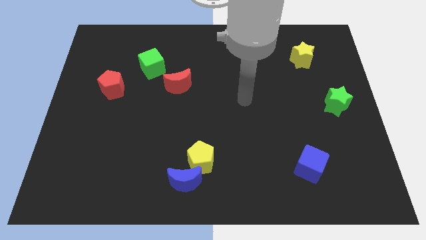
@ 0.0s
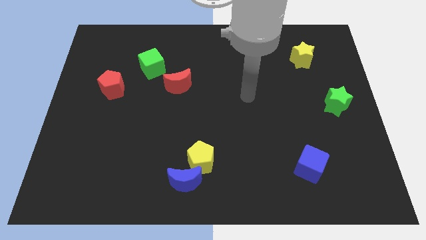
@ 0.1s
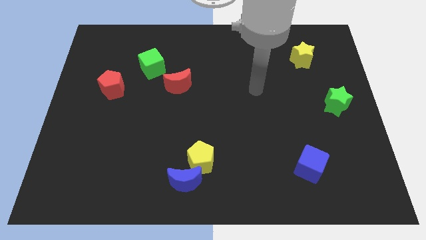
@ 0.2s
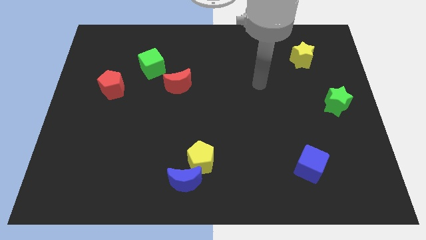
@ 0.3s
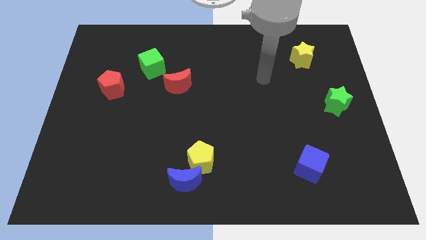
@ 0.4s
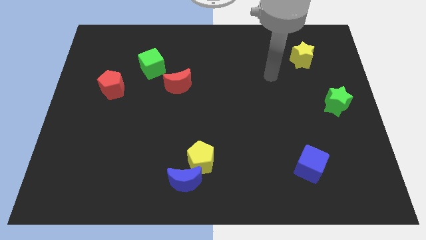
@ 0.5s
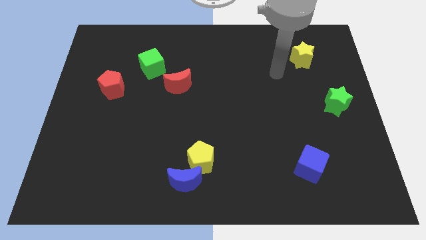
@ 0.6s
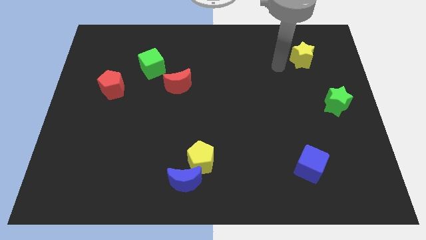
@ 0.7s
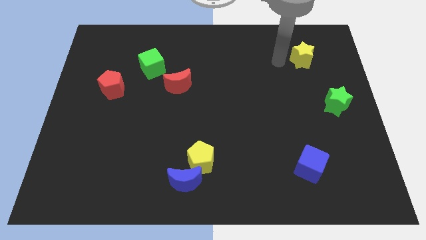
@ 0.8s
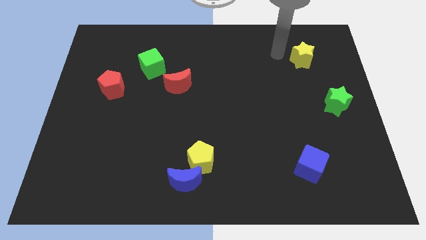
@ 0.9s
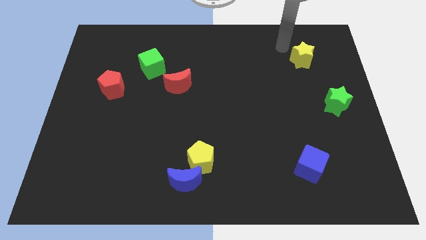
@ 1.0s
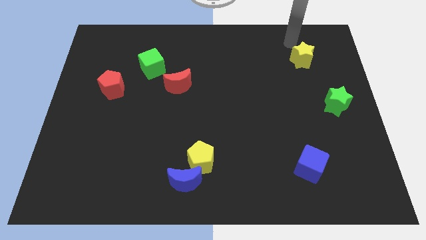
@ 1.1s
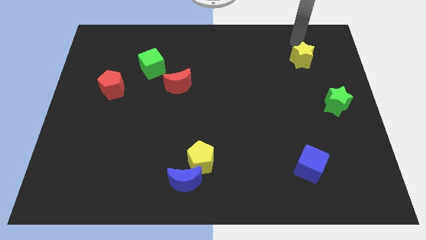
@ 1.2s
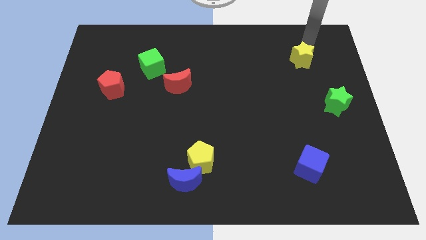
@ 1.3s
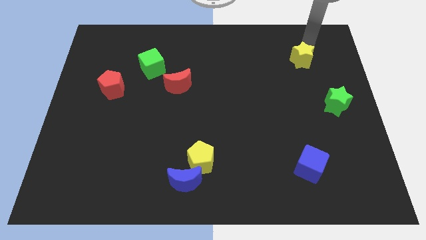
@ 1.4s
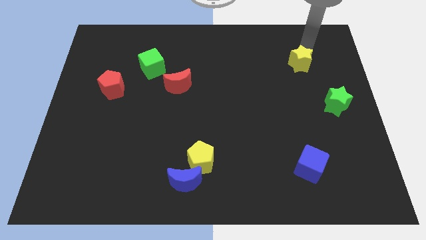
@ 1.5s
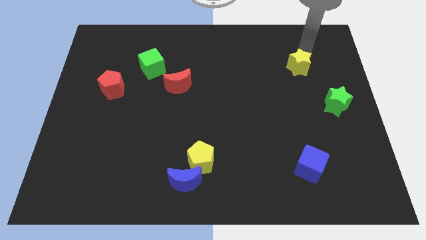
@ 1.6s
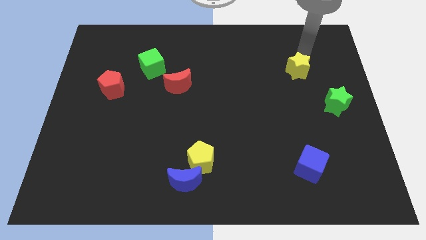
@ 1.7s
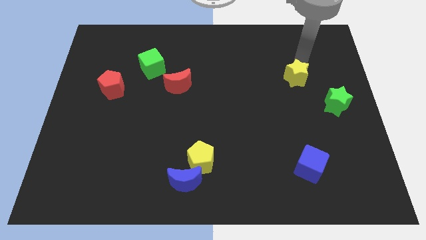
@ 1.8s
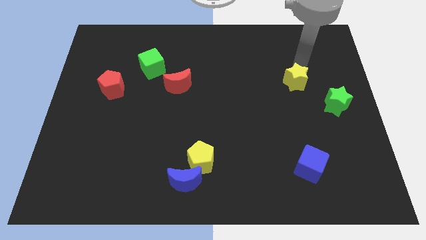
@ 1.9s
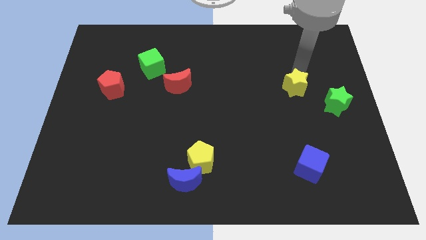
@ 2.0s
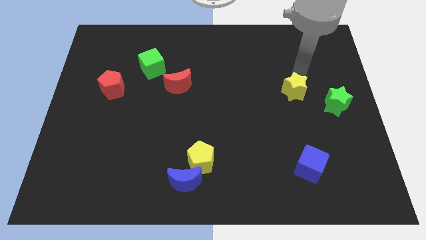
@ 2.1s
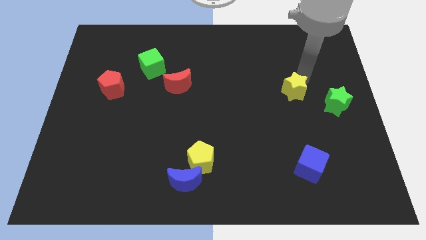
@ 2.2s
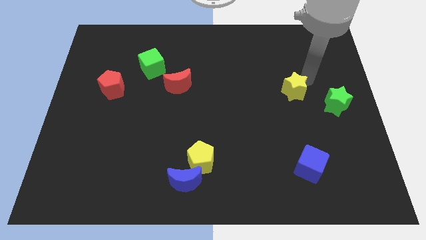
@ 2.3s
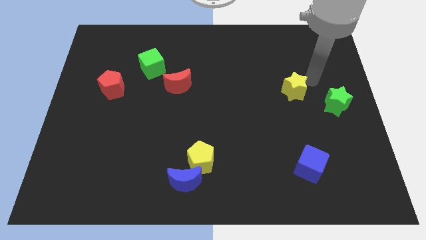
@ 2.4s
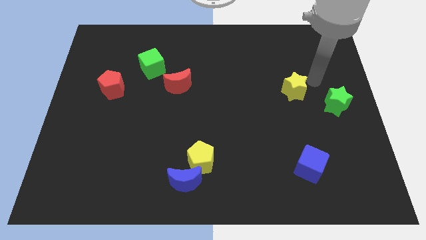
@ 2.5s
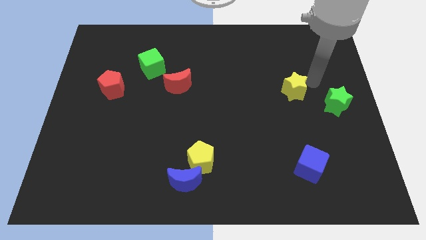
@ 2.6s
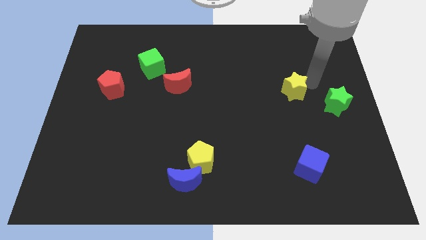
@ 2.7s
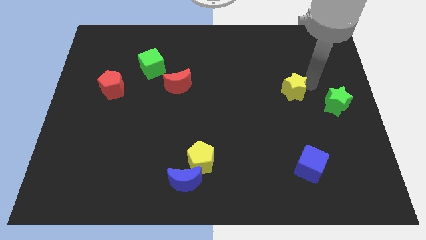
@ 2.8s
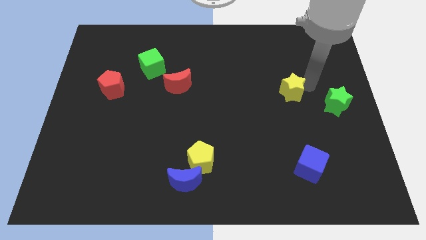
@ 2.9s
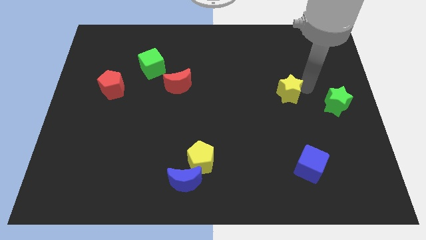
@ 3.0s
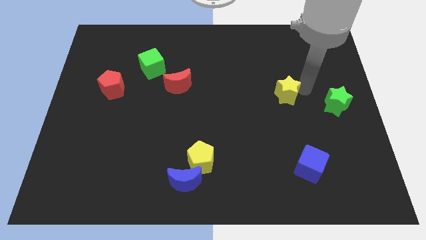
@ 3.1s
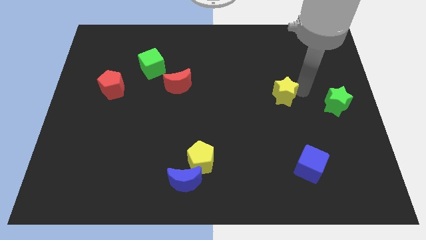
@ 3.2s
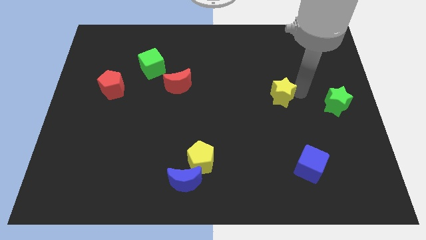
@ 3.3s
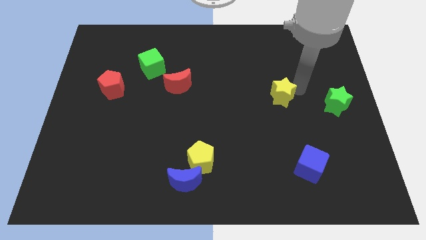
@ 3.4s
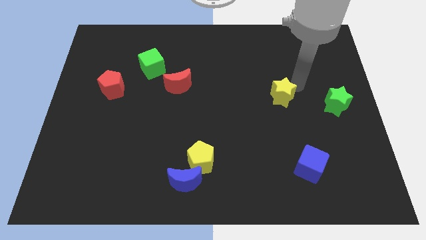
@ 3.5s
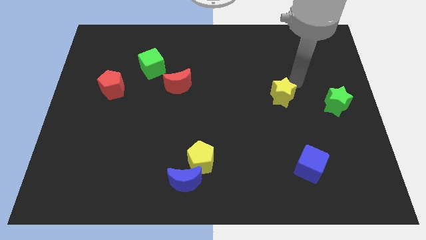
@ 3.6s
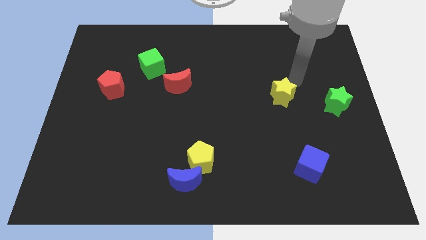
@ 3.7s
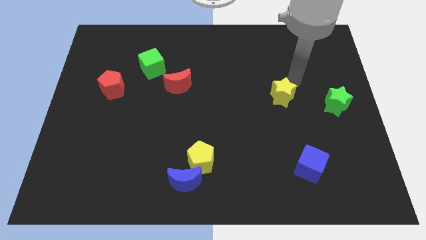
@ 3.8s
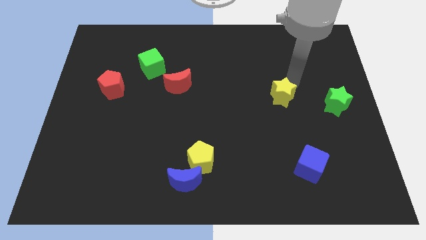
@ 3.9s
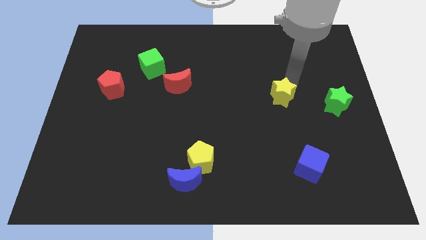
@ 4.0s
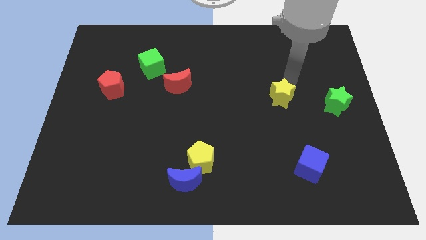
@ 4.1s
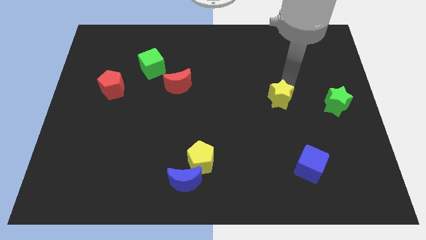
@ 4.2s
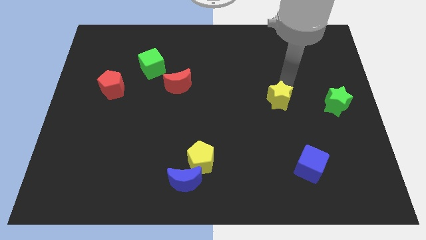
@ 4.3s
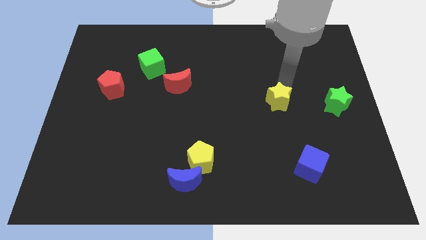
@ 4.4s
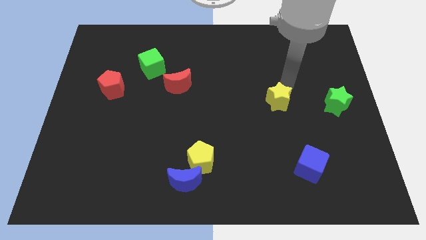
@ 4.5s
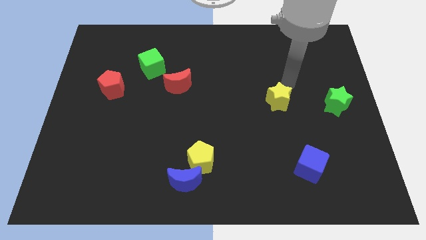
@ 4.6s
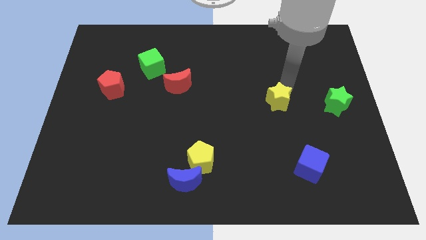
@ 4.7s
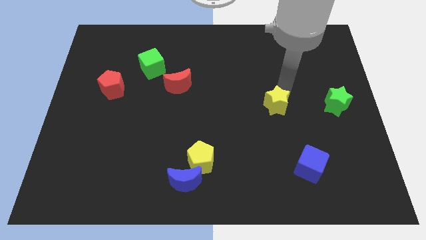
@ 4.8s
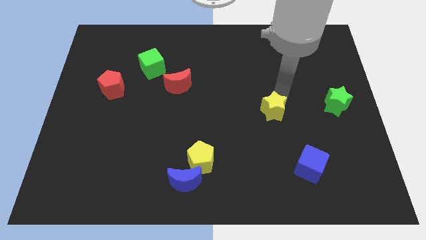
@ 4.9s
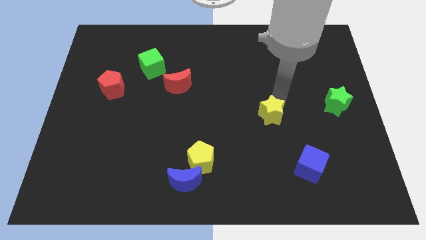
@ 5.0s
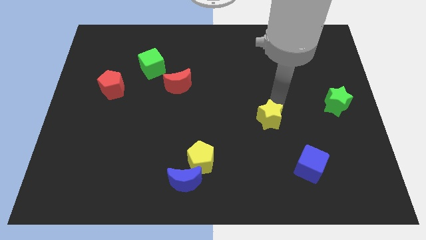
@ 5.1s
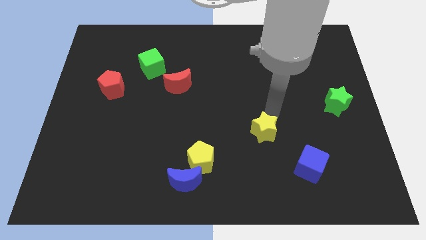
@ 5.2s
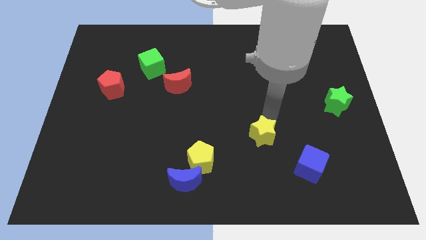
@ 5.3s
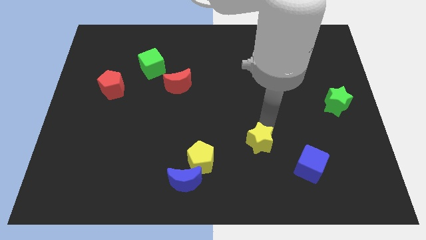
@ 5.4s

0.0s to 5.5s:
move the yellow star to the right of the yellow pentagon

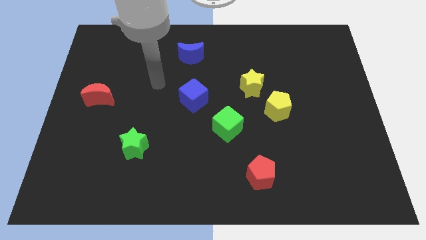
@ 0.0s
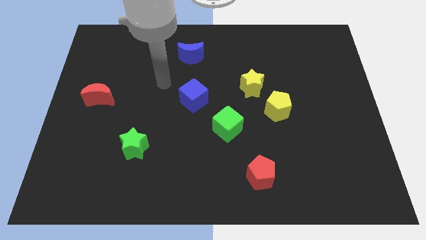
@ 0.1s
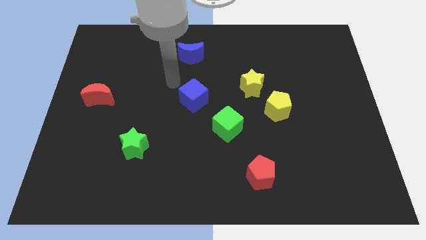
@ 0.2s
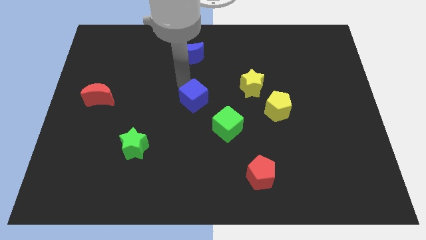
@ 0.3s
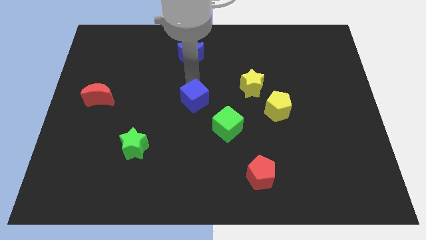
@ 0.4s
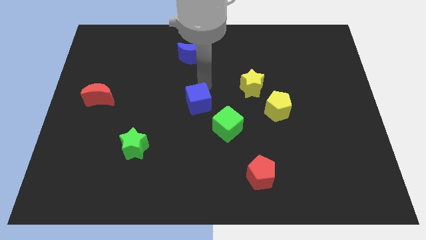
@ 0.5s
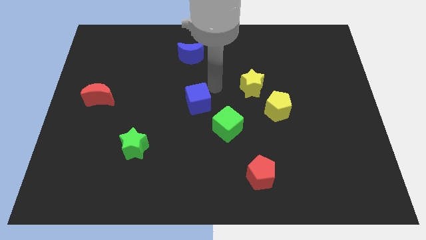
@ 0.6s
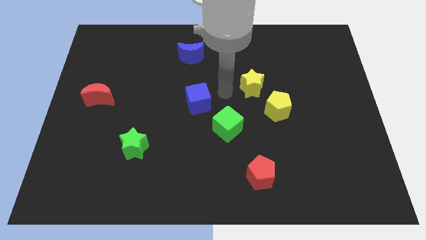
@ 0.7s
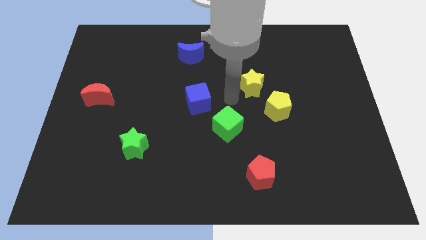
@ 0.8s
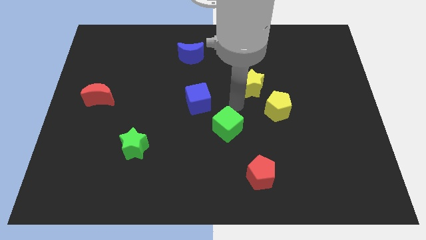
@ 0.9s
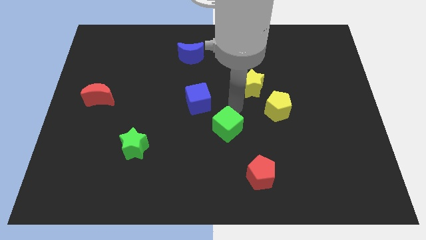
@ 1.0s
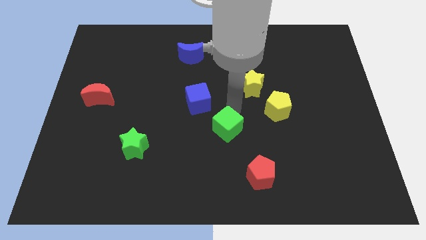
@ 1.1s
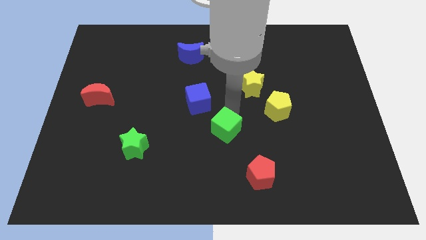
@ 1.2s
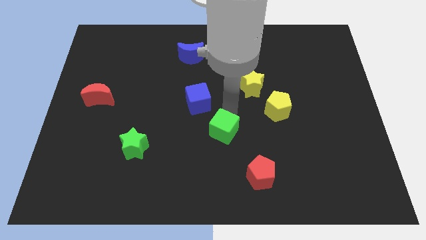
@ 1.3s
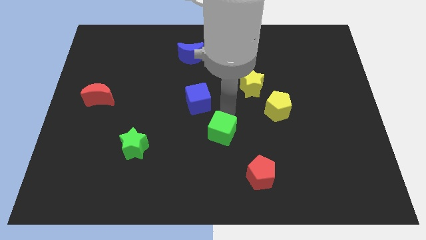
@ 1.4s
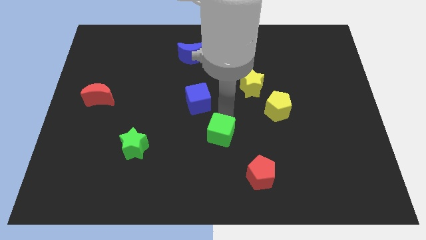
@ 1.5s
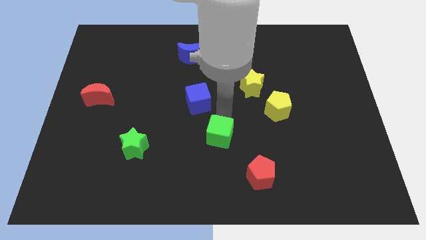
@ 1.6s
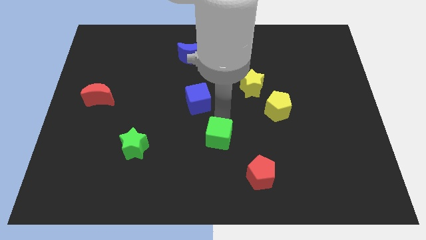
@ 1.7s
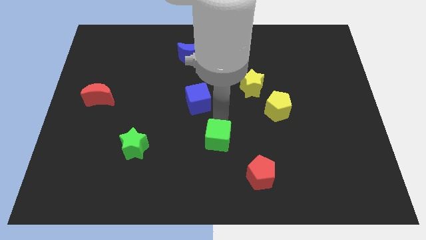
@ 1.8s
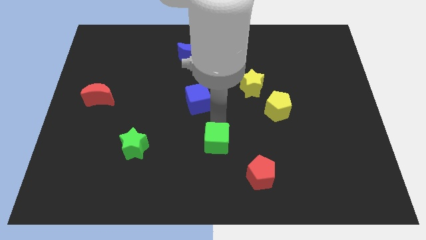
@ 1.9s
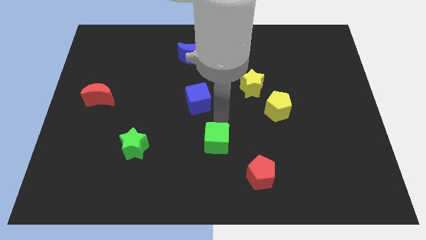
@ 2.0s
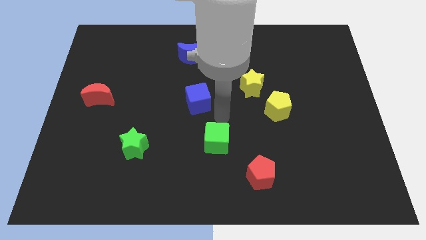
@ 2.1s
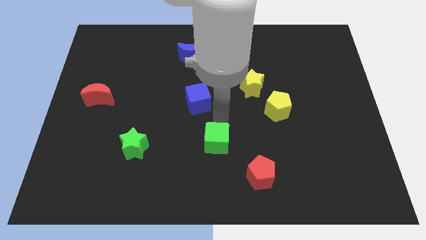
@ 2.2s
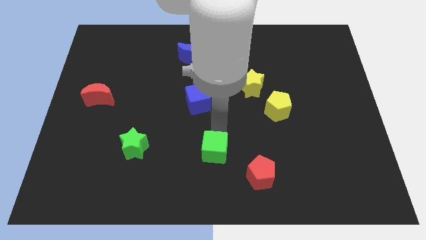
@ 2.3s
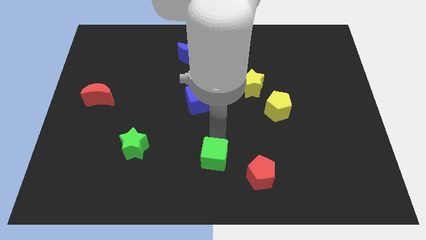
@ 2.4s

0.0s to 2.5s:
put the green cube to the left side of the red pentagon
